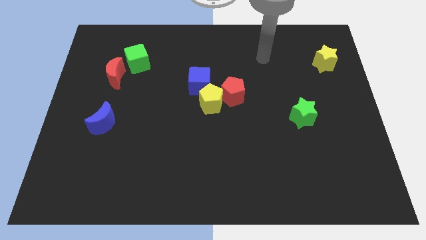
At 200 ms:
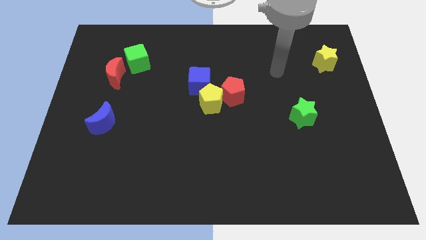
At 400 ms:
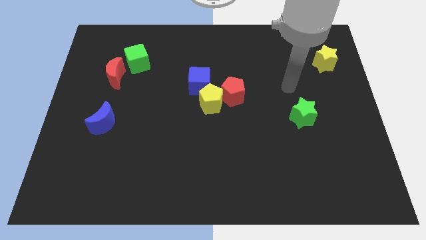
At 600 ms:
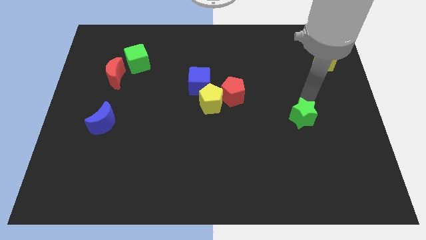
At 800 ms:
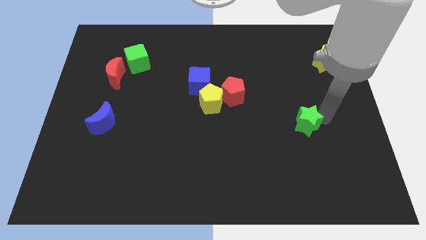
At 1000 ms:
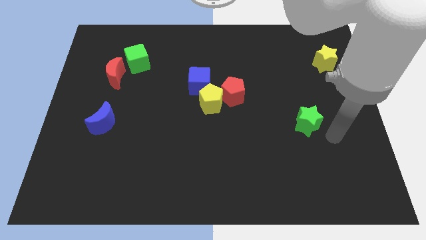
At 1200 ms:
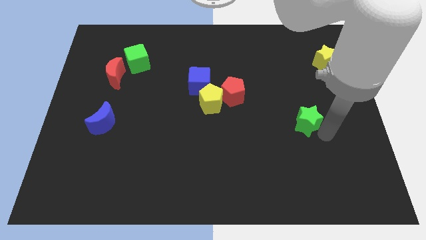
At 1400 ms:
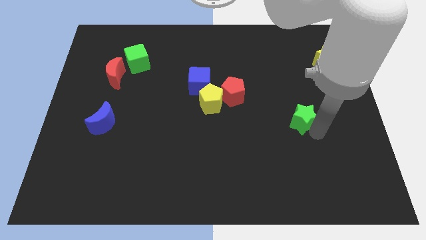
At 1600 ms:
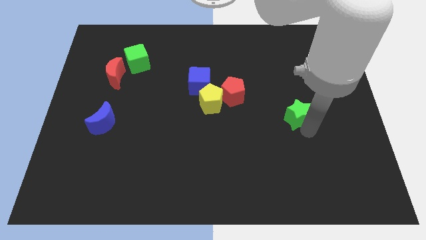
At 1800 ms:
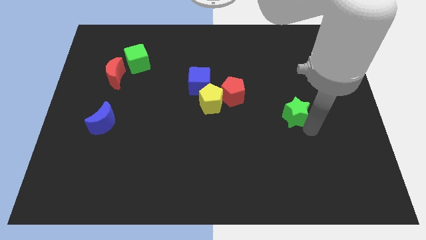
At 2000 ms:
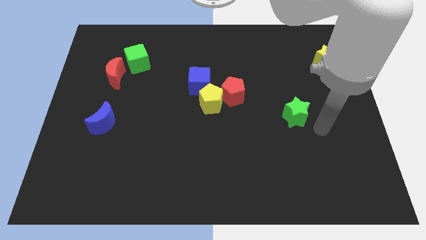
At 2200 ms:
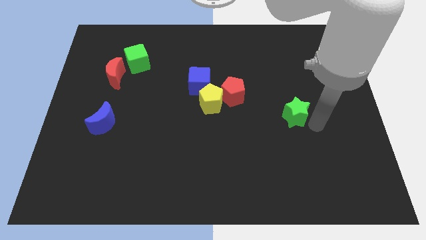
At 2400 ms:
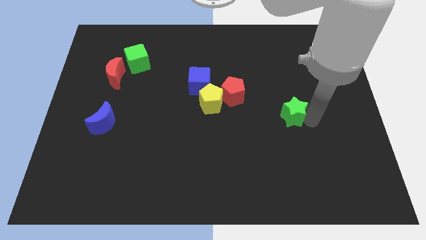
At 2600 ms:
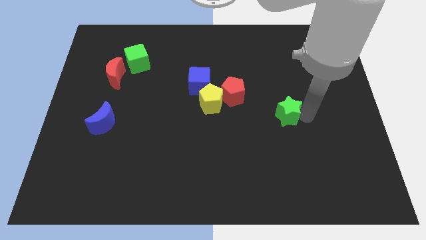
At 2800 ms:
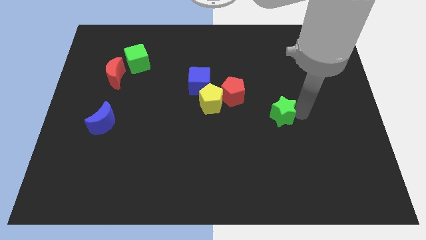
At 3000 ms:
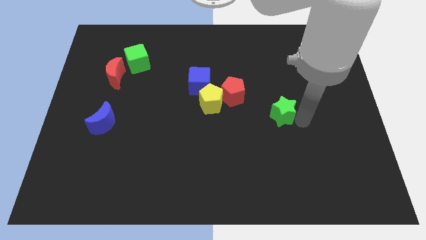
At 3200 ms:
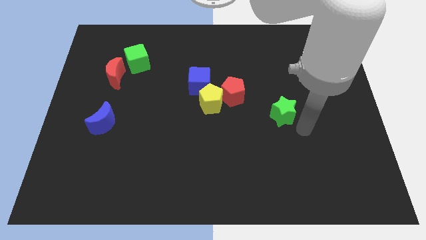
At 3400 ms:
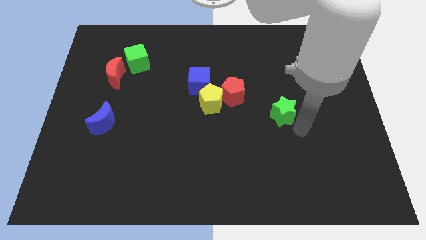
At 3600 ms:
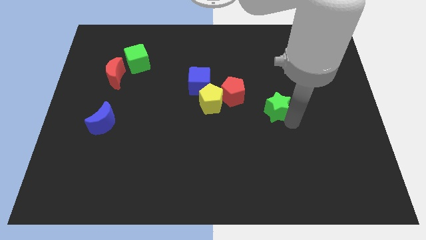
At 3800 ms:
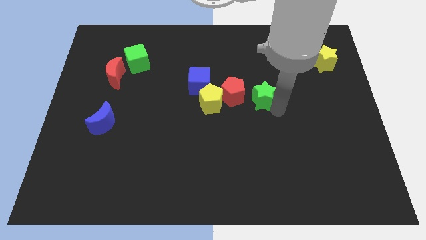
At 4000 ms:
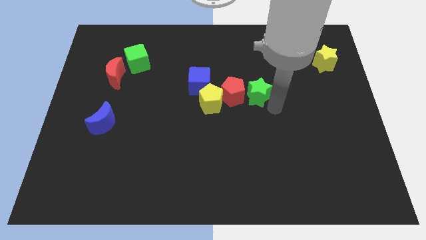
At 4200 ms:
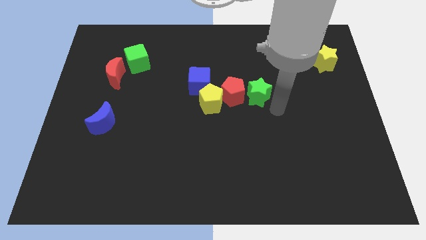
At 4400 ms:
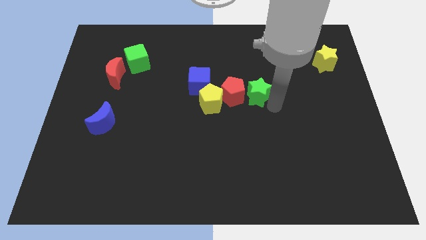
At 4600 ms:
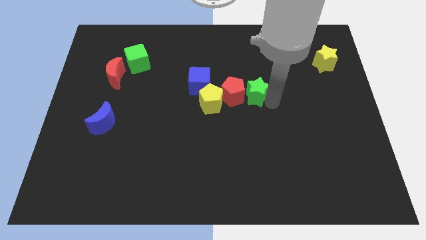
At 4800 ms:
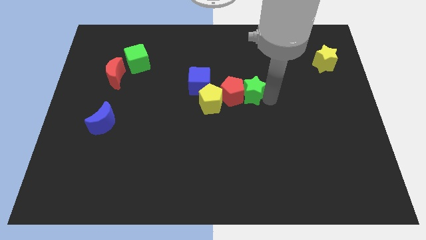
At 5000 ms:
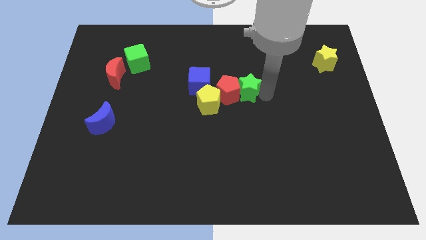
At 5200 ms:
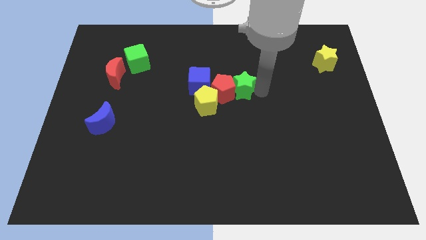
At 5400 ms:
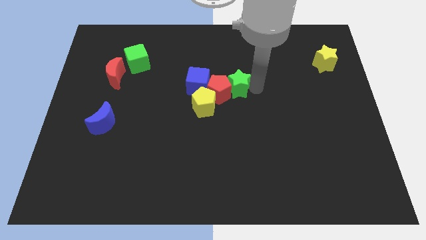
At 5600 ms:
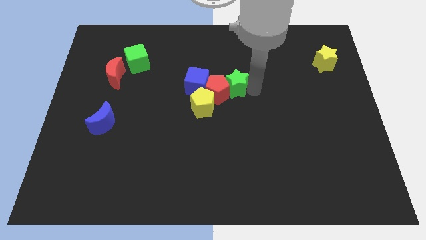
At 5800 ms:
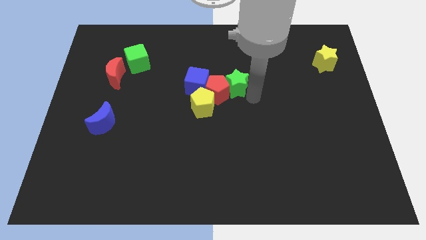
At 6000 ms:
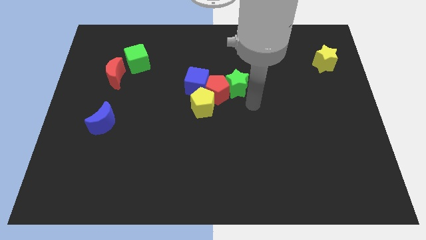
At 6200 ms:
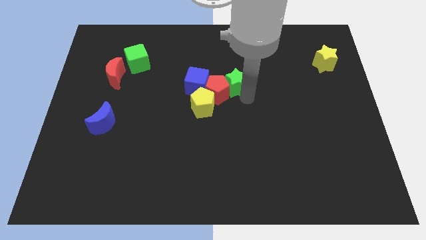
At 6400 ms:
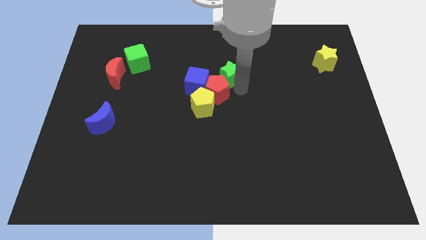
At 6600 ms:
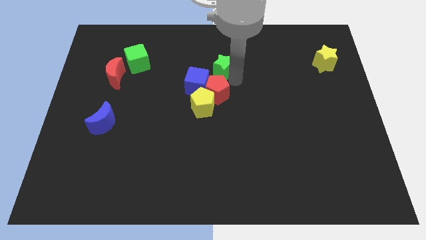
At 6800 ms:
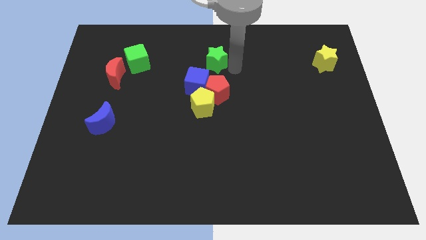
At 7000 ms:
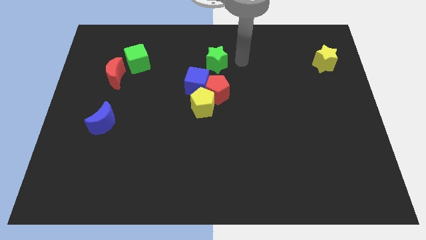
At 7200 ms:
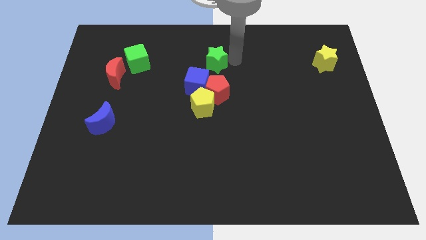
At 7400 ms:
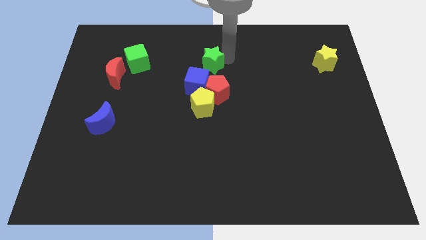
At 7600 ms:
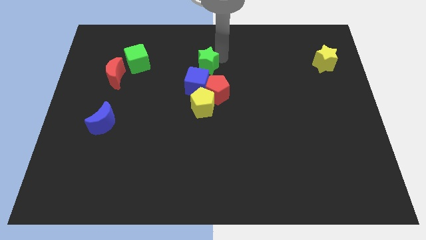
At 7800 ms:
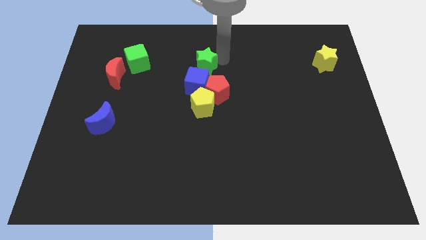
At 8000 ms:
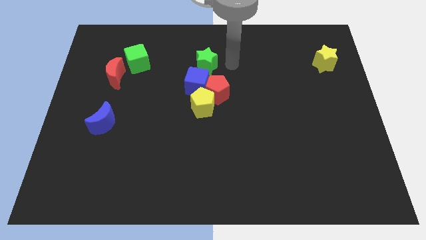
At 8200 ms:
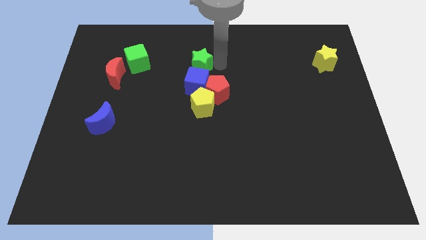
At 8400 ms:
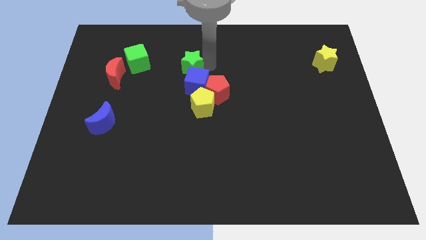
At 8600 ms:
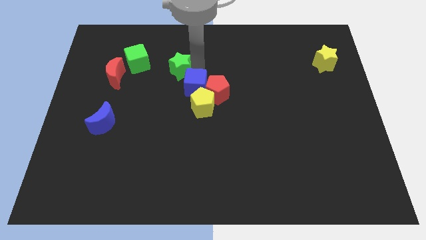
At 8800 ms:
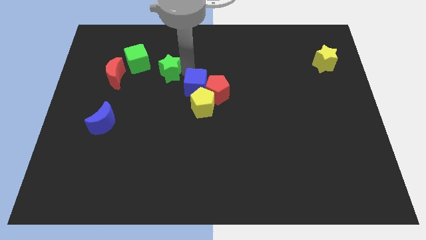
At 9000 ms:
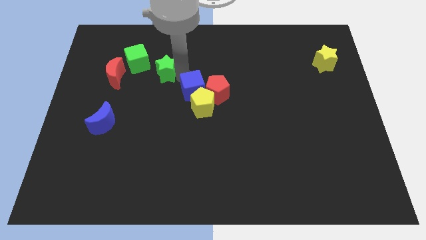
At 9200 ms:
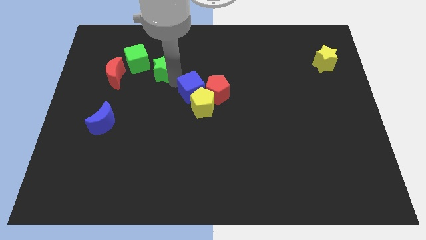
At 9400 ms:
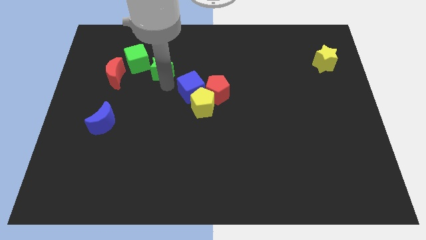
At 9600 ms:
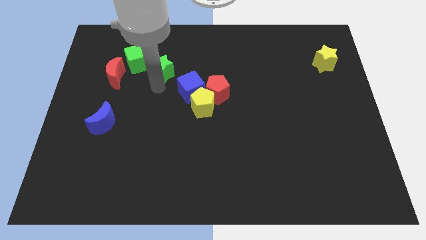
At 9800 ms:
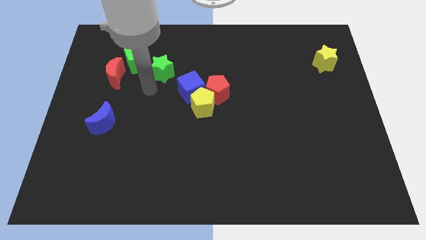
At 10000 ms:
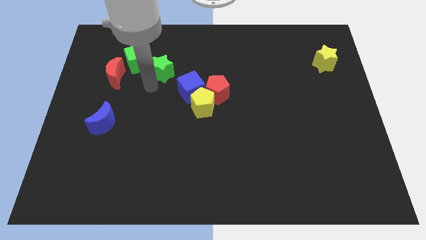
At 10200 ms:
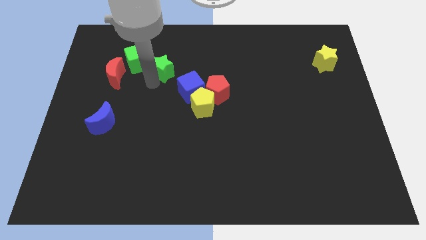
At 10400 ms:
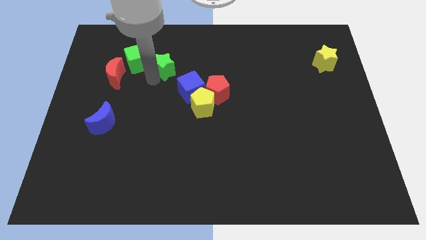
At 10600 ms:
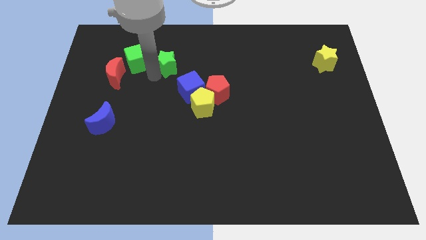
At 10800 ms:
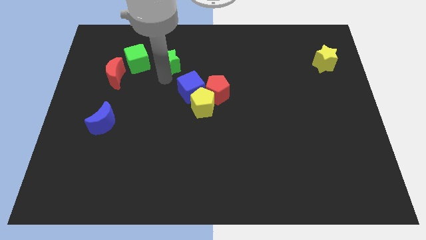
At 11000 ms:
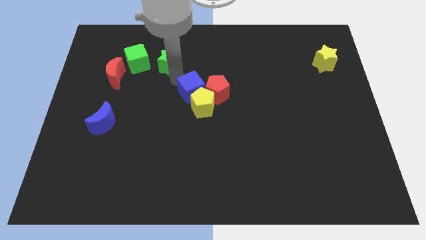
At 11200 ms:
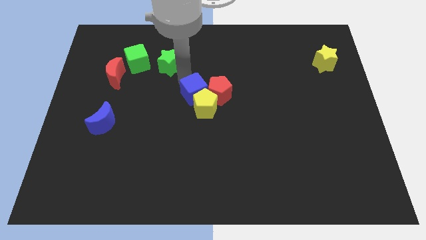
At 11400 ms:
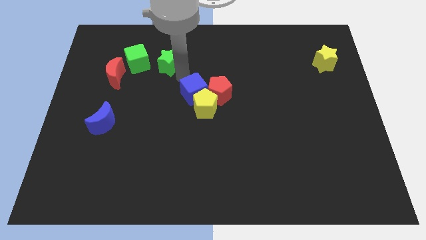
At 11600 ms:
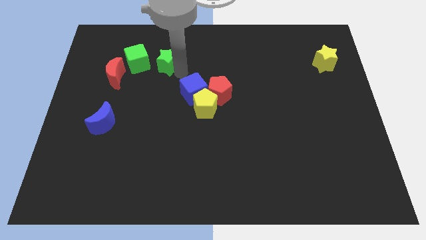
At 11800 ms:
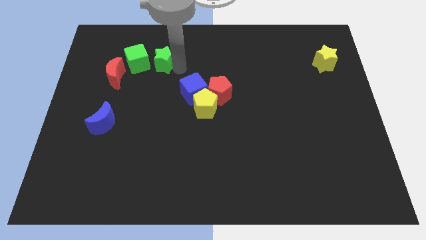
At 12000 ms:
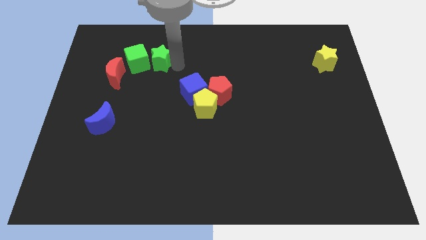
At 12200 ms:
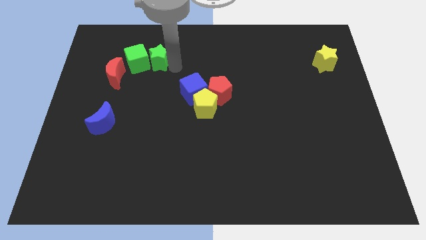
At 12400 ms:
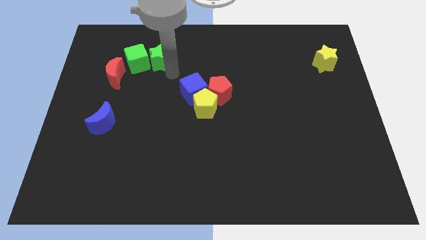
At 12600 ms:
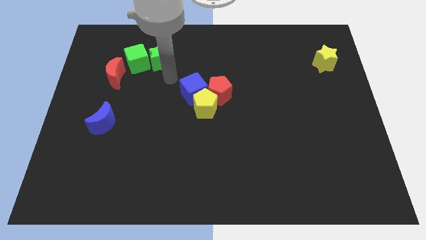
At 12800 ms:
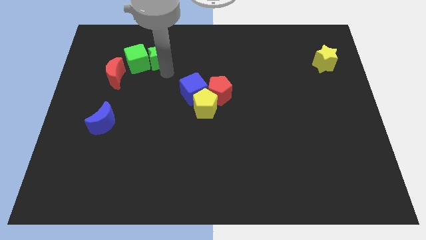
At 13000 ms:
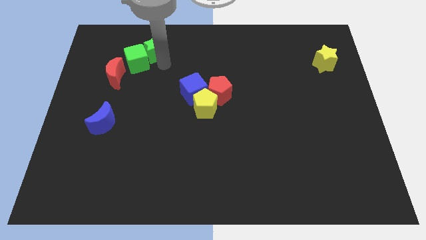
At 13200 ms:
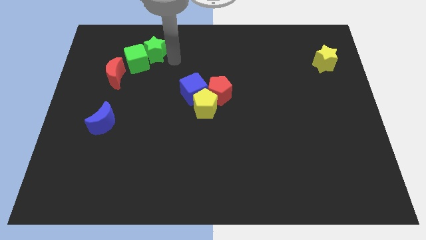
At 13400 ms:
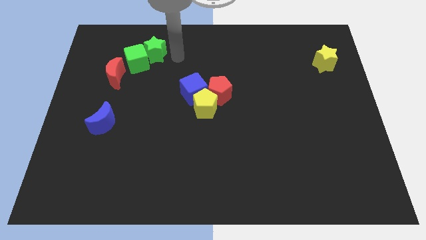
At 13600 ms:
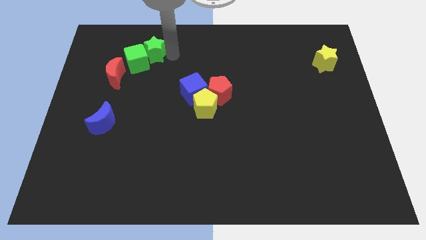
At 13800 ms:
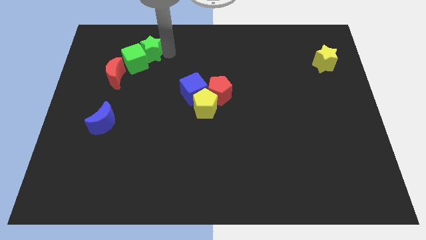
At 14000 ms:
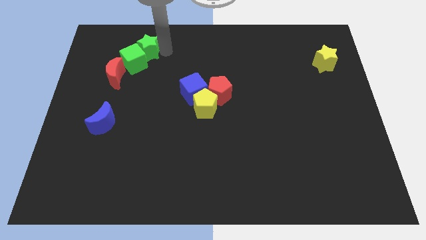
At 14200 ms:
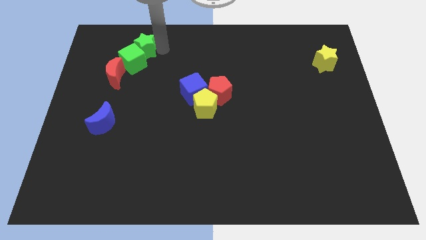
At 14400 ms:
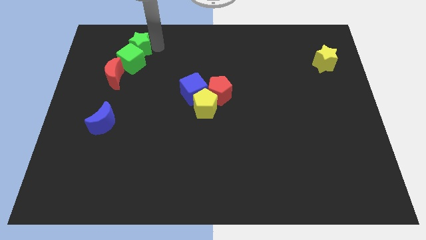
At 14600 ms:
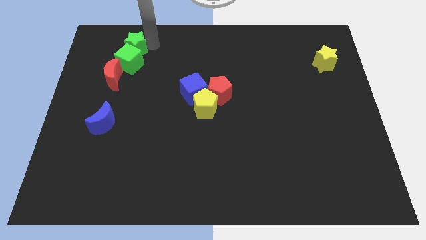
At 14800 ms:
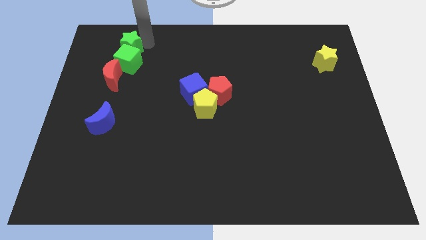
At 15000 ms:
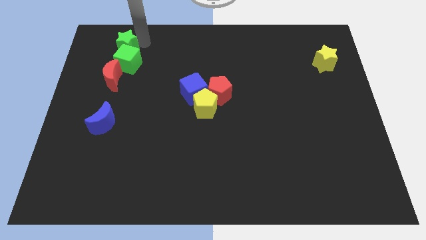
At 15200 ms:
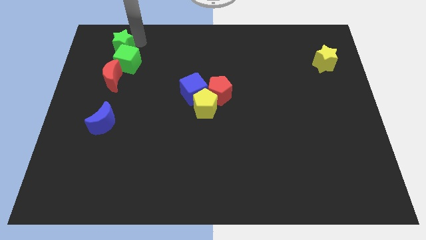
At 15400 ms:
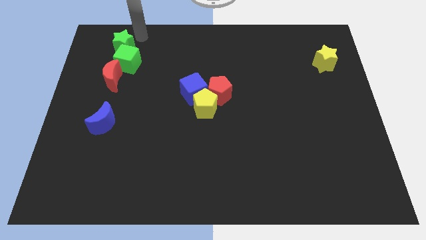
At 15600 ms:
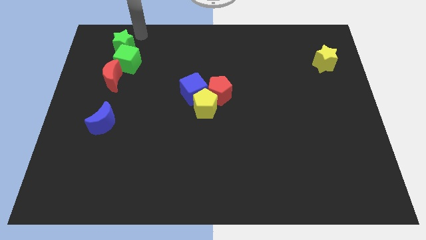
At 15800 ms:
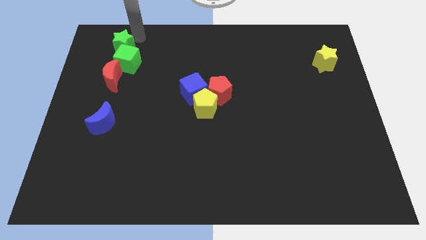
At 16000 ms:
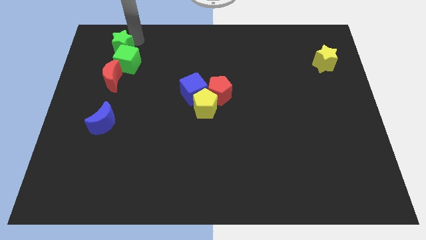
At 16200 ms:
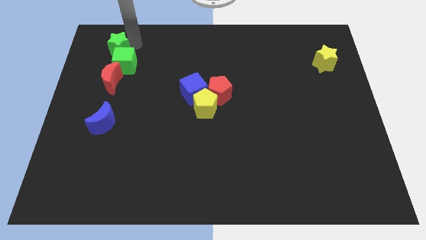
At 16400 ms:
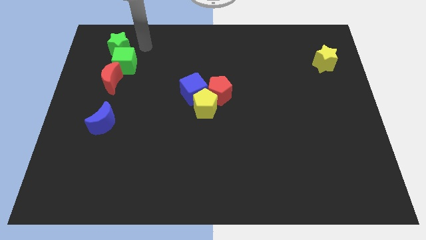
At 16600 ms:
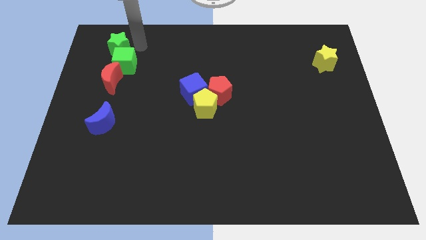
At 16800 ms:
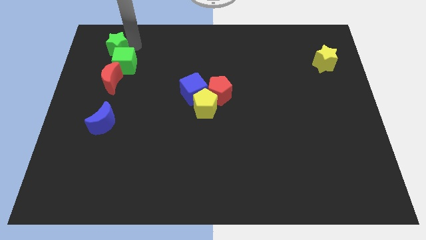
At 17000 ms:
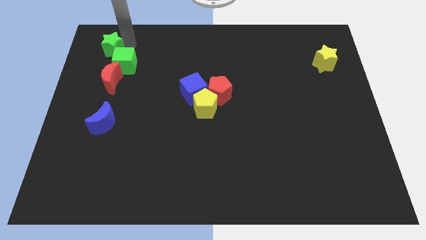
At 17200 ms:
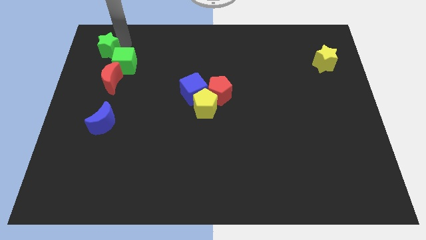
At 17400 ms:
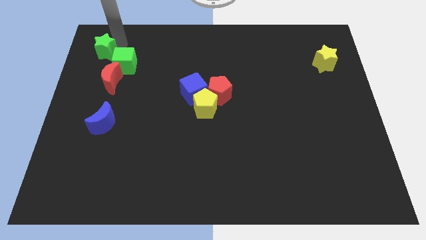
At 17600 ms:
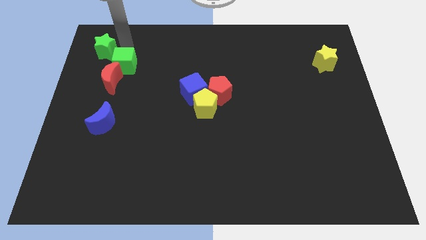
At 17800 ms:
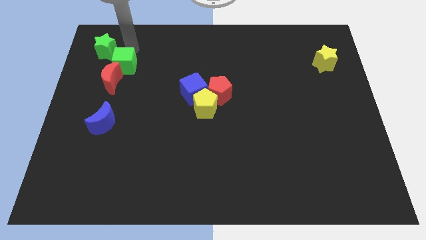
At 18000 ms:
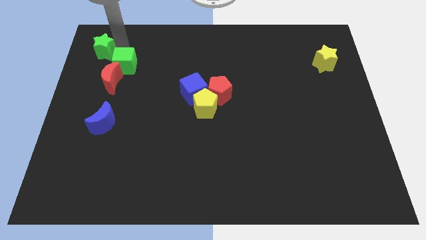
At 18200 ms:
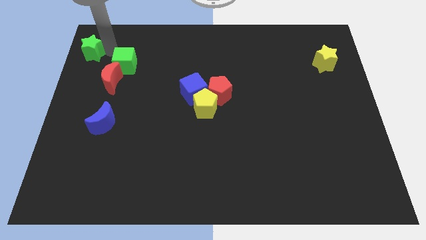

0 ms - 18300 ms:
push the green star to the top left
